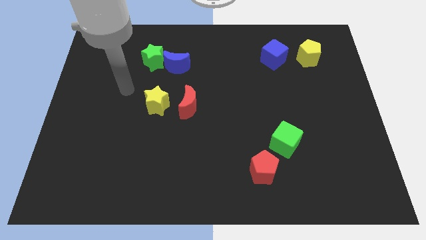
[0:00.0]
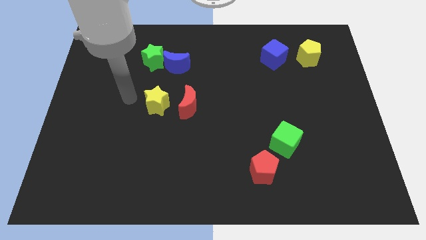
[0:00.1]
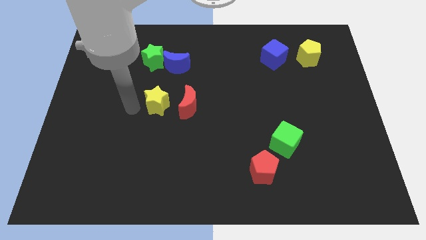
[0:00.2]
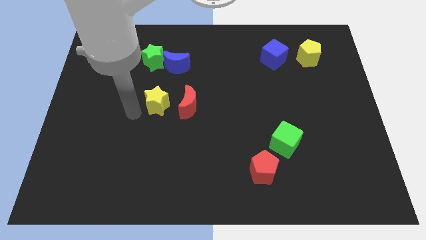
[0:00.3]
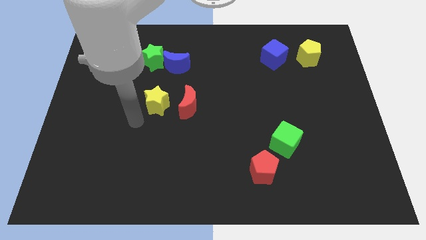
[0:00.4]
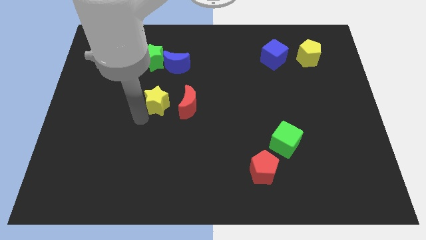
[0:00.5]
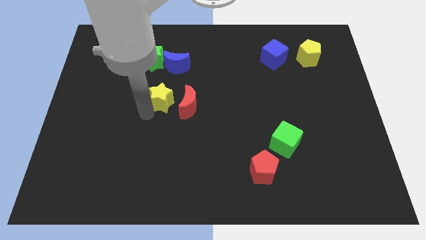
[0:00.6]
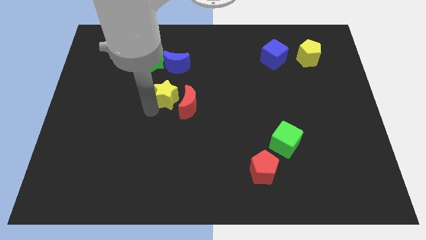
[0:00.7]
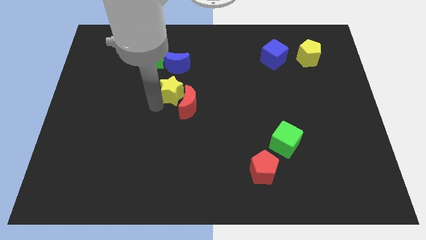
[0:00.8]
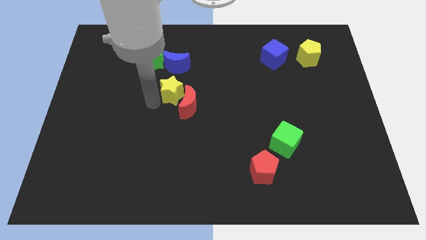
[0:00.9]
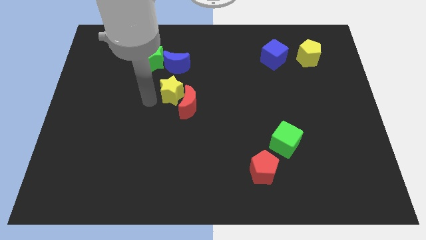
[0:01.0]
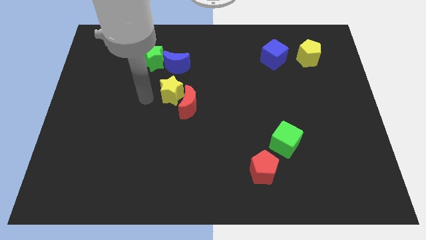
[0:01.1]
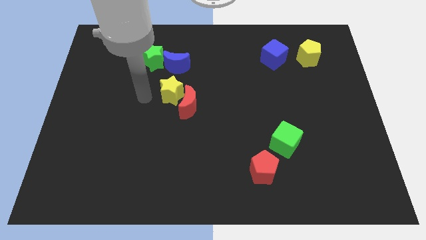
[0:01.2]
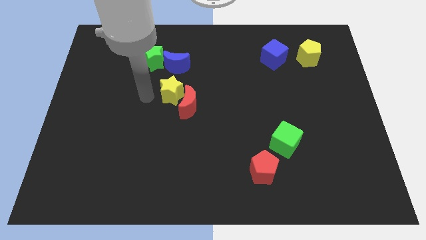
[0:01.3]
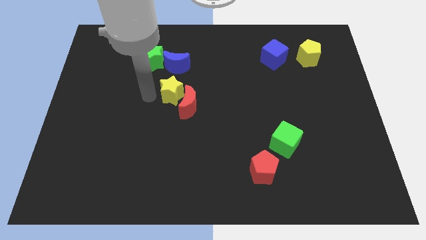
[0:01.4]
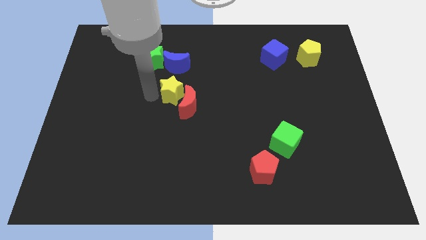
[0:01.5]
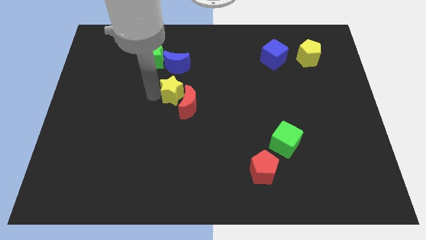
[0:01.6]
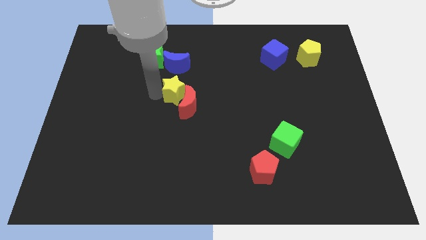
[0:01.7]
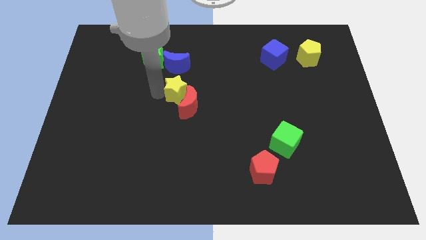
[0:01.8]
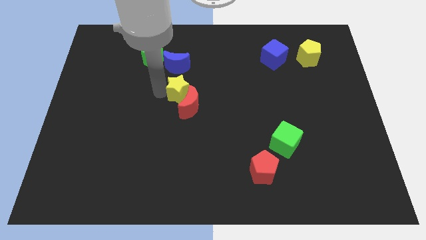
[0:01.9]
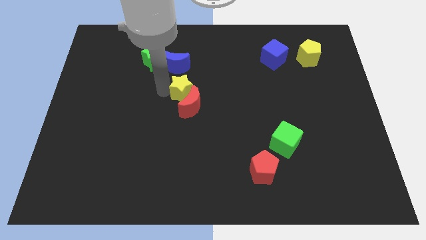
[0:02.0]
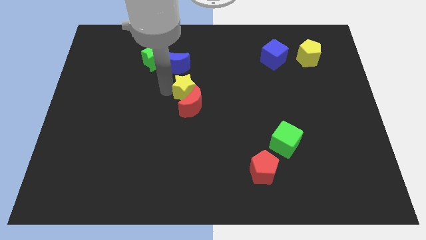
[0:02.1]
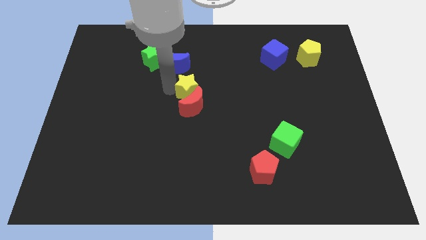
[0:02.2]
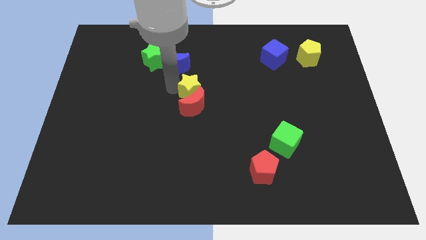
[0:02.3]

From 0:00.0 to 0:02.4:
move the yellow star to the right slightly

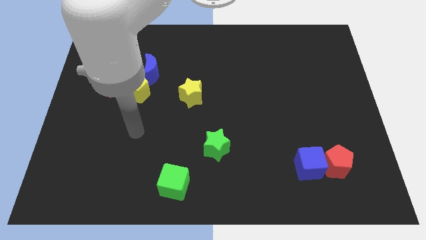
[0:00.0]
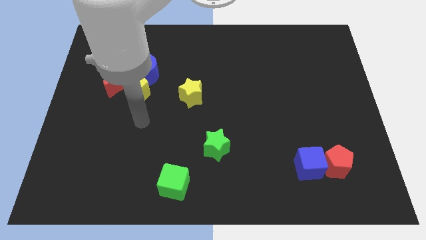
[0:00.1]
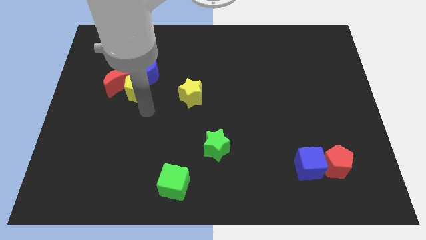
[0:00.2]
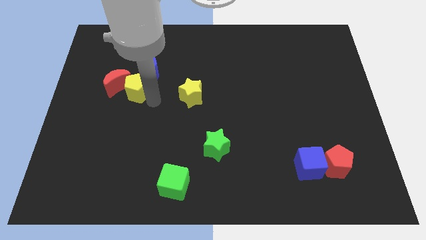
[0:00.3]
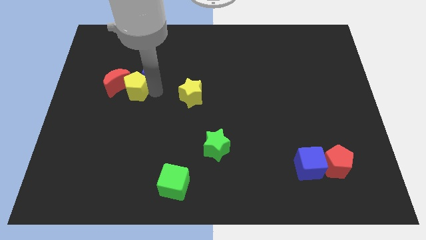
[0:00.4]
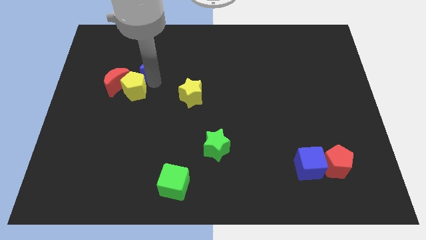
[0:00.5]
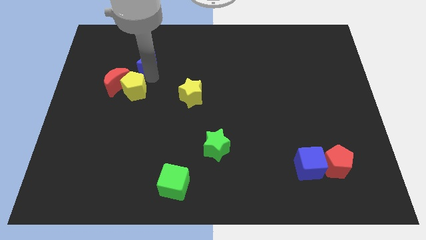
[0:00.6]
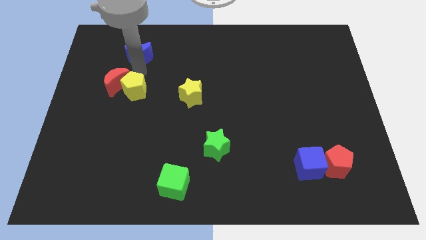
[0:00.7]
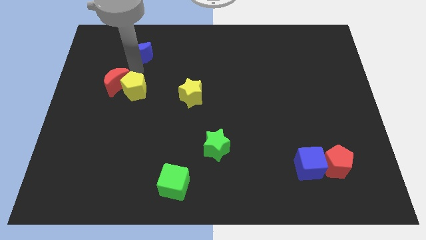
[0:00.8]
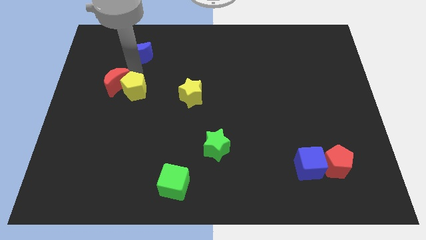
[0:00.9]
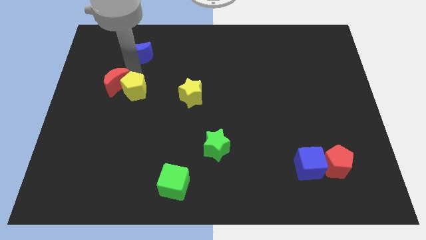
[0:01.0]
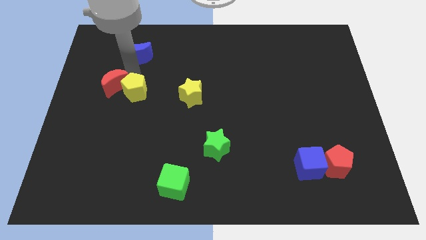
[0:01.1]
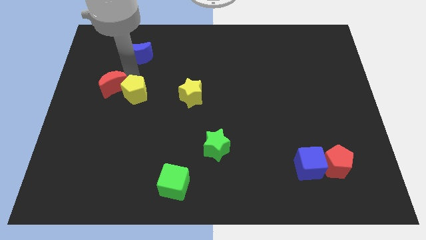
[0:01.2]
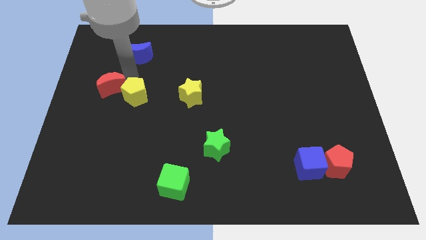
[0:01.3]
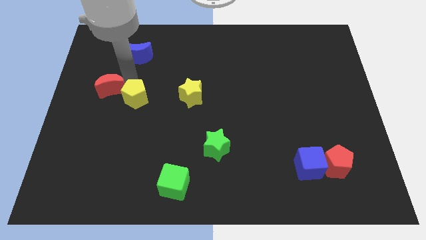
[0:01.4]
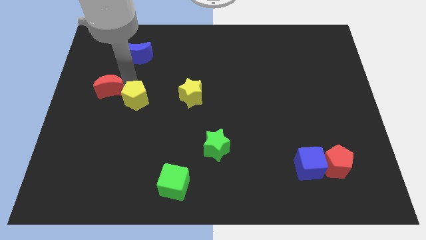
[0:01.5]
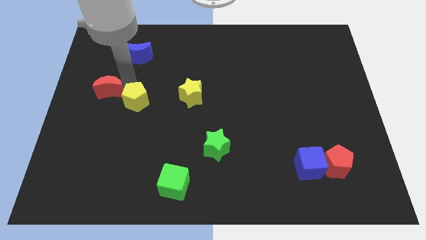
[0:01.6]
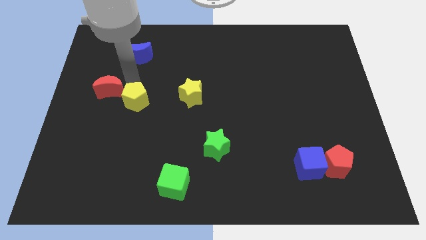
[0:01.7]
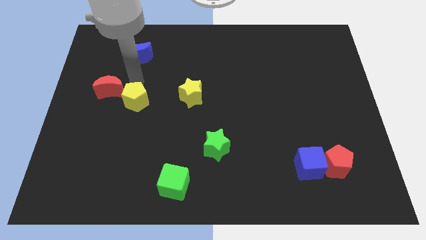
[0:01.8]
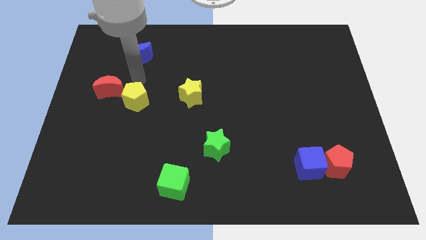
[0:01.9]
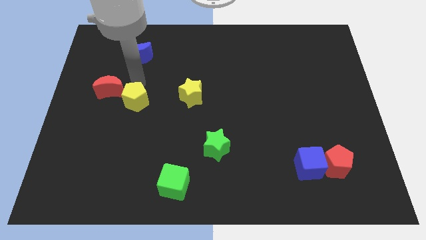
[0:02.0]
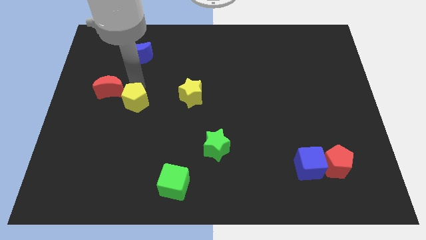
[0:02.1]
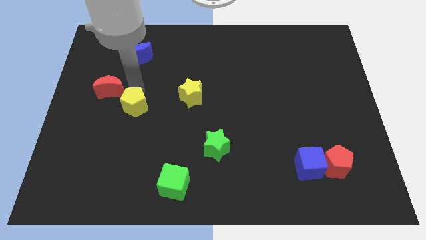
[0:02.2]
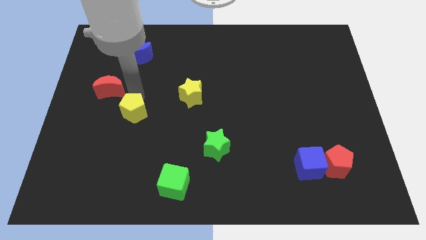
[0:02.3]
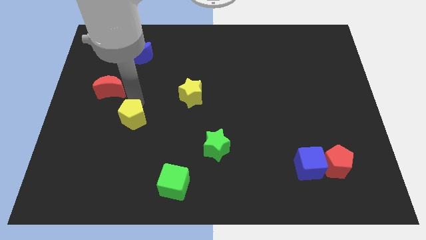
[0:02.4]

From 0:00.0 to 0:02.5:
push the yellow pentagon a bit downwards

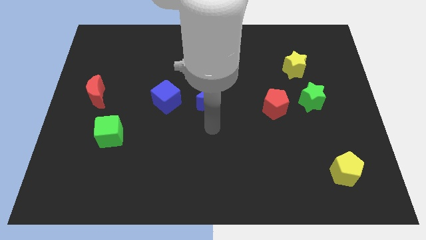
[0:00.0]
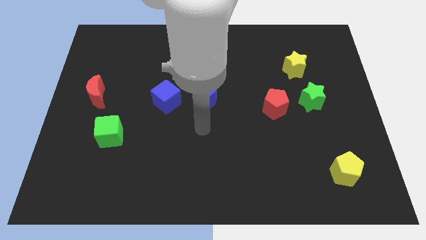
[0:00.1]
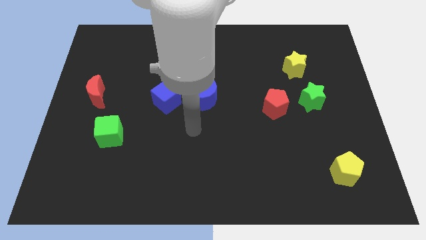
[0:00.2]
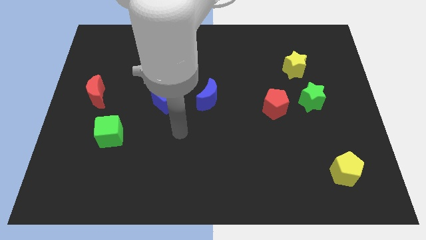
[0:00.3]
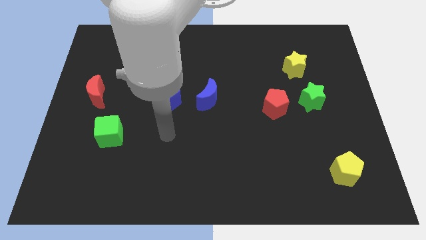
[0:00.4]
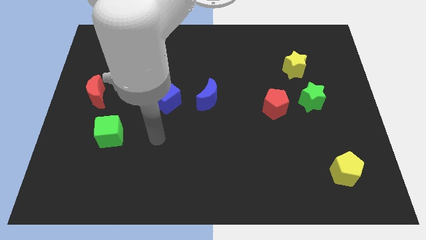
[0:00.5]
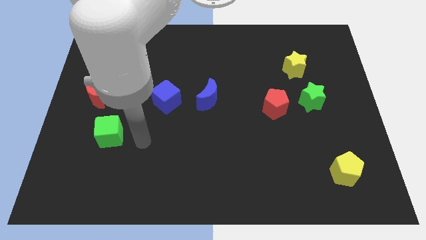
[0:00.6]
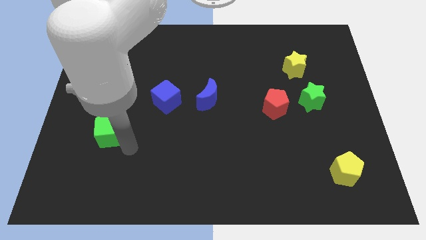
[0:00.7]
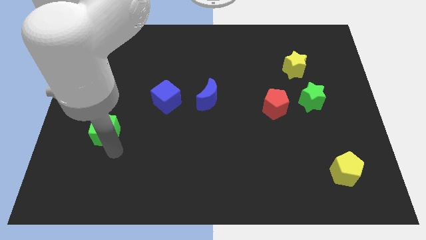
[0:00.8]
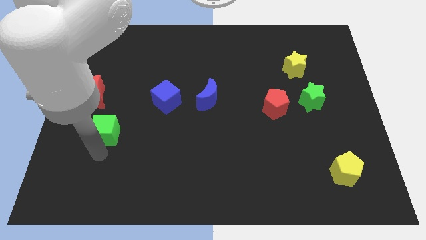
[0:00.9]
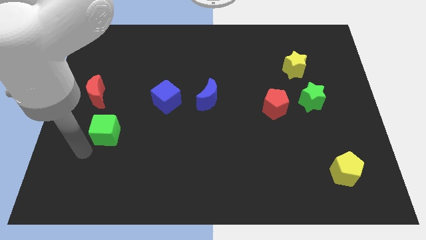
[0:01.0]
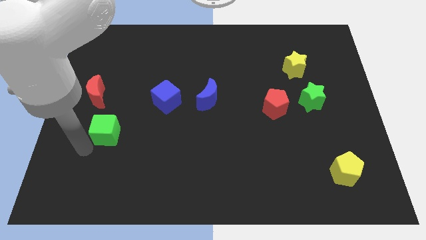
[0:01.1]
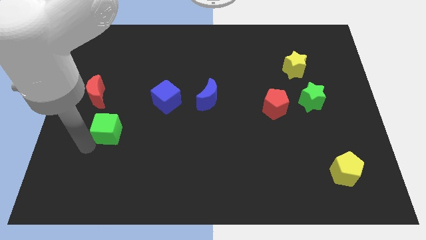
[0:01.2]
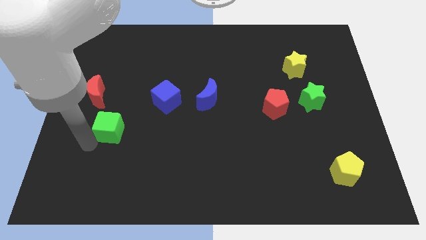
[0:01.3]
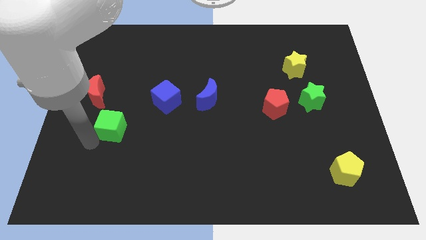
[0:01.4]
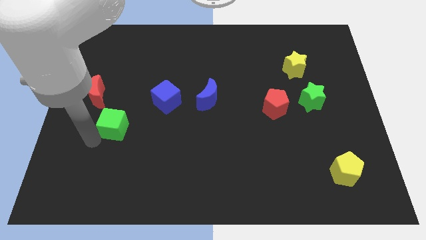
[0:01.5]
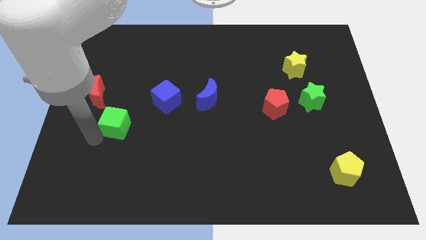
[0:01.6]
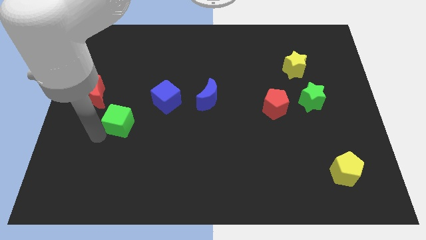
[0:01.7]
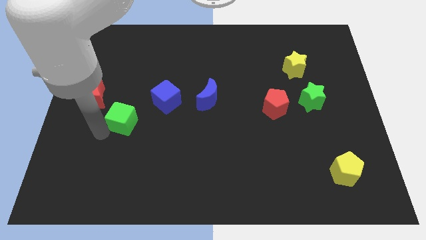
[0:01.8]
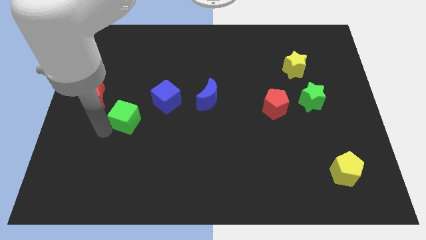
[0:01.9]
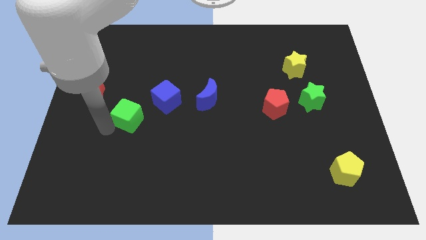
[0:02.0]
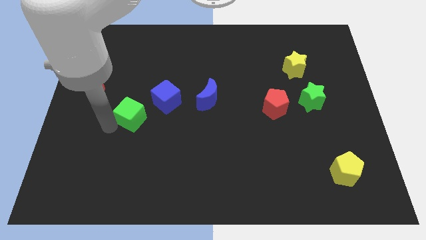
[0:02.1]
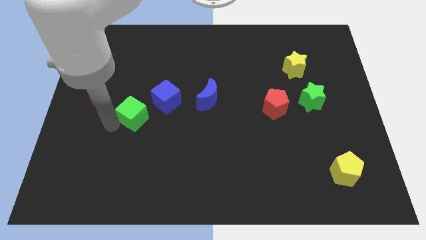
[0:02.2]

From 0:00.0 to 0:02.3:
slightly slide the green cube up and to the right

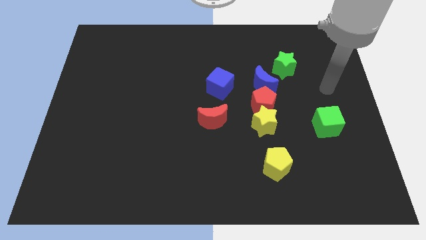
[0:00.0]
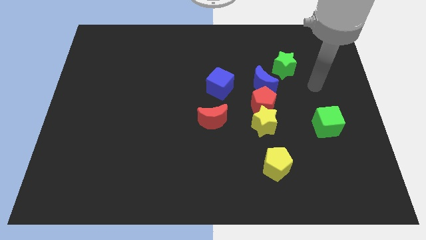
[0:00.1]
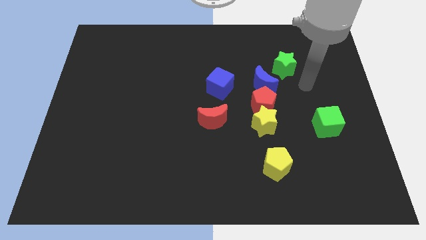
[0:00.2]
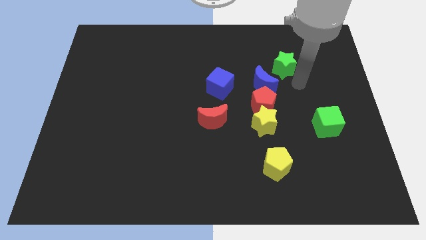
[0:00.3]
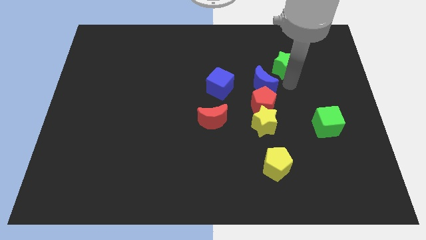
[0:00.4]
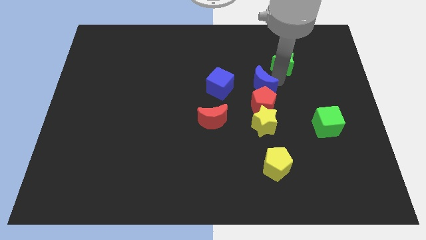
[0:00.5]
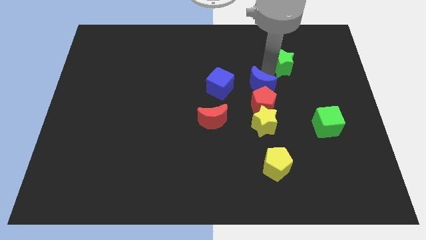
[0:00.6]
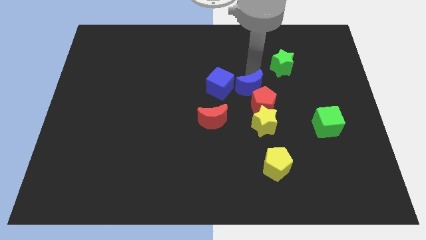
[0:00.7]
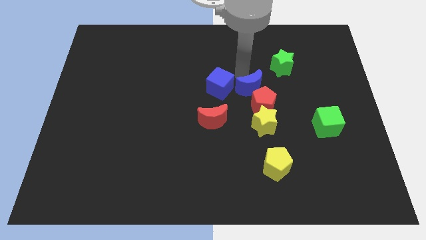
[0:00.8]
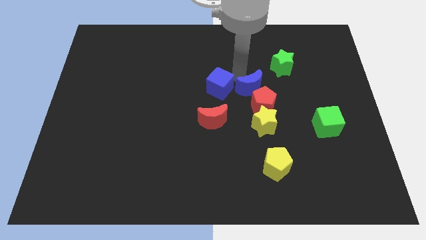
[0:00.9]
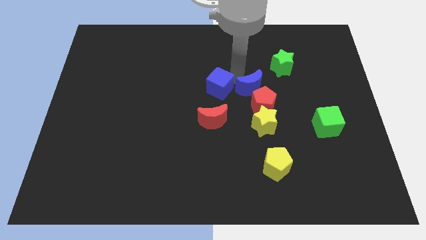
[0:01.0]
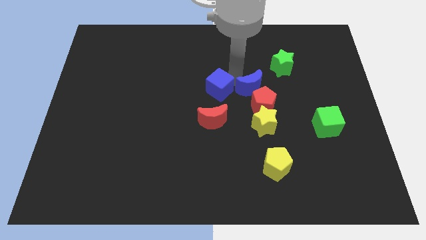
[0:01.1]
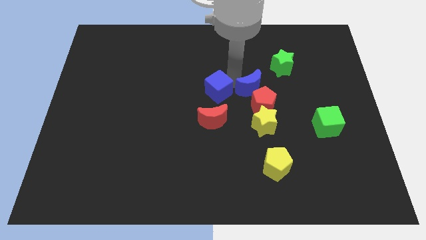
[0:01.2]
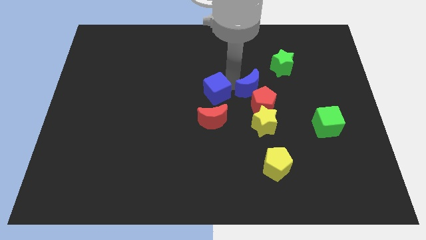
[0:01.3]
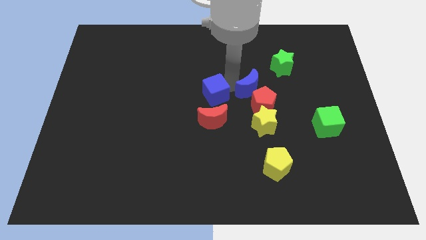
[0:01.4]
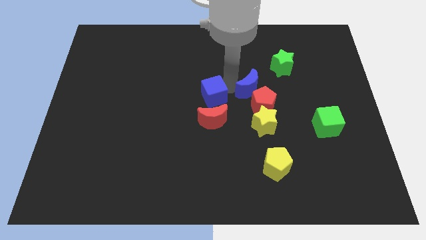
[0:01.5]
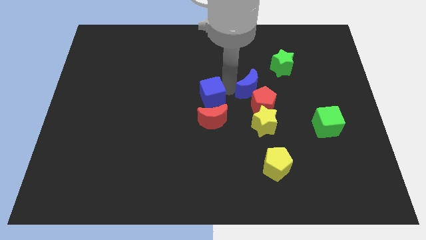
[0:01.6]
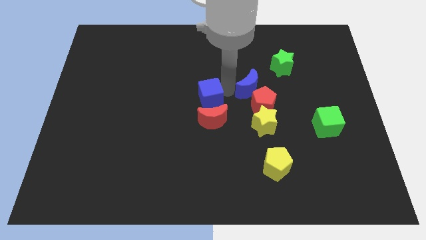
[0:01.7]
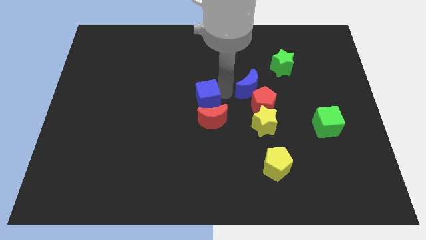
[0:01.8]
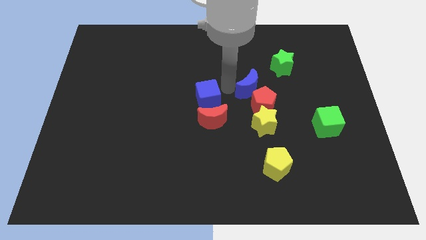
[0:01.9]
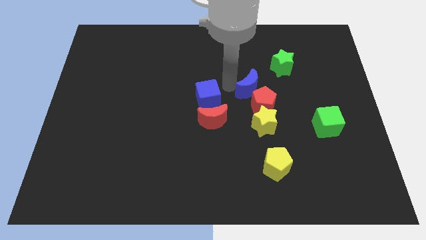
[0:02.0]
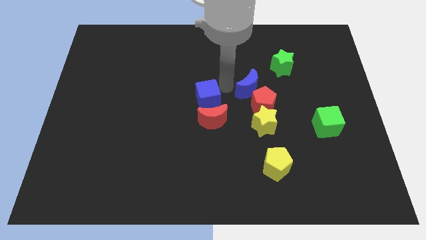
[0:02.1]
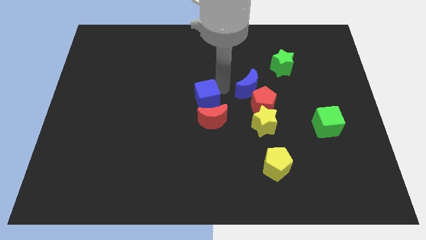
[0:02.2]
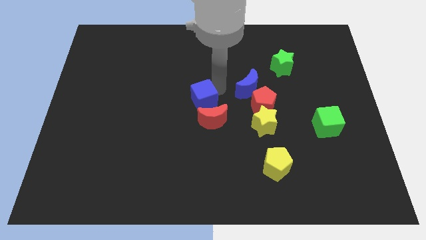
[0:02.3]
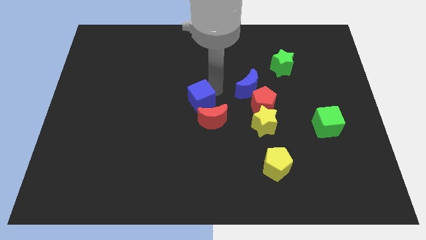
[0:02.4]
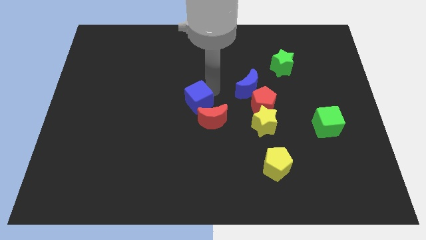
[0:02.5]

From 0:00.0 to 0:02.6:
slide the blue cube a little bit diagonally downwards and to the left
